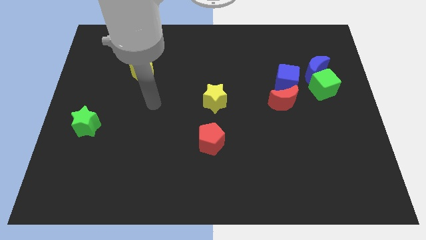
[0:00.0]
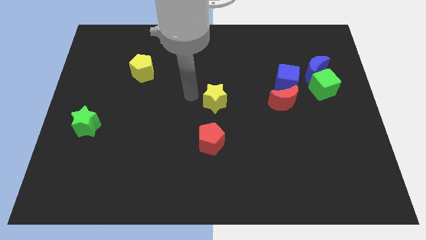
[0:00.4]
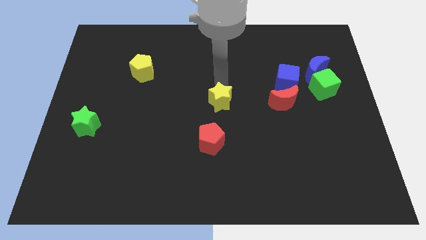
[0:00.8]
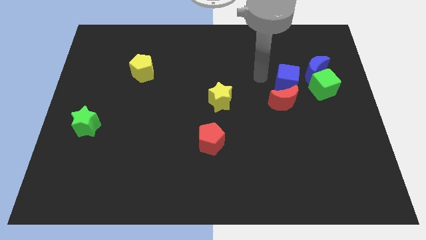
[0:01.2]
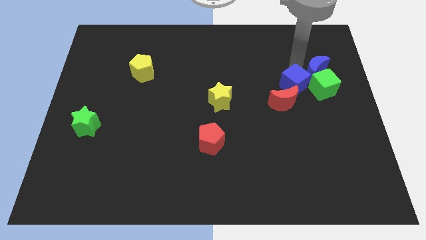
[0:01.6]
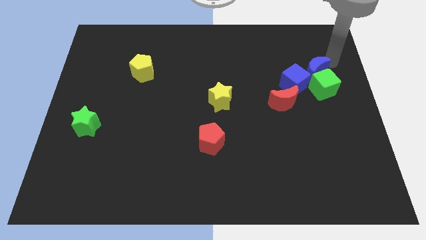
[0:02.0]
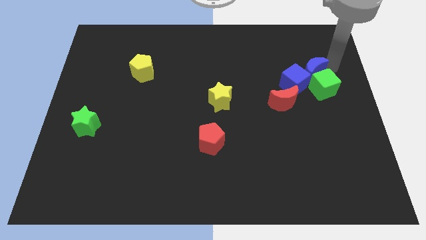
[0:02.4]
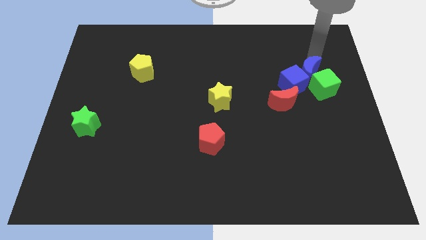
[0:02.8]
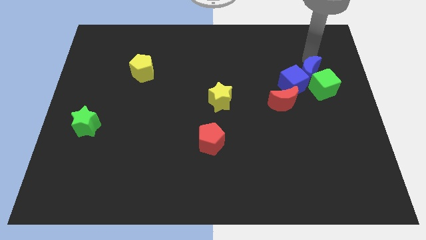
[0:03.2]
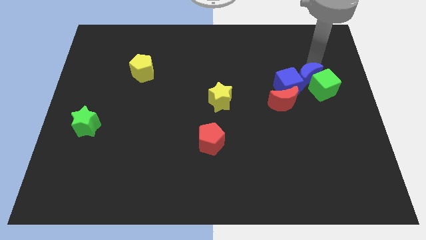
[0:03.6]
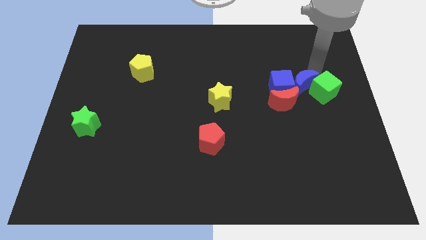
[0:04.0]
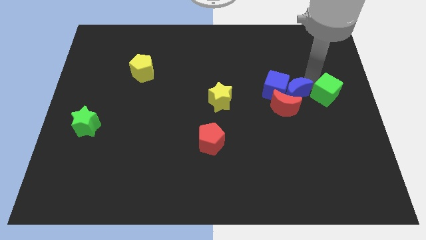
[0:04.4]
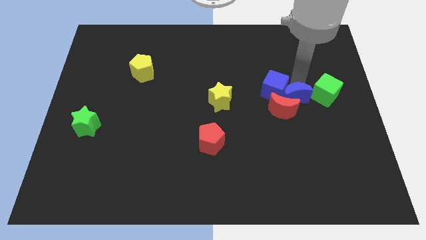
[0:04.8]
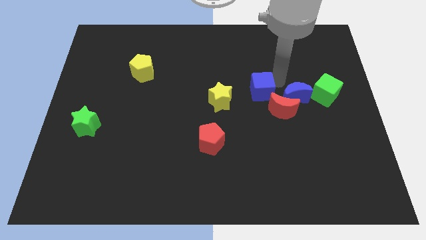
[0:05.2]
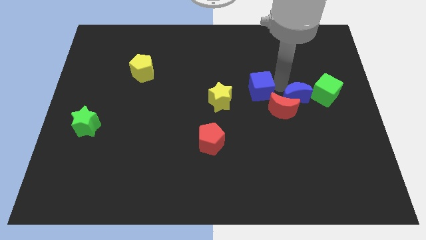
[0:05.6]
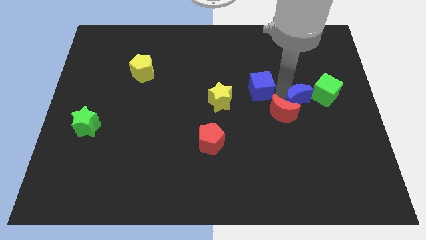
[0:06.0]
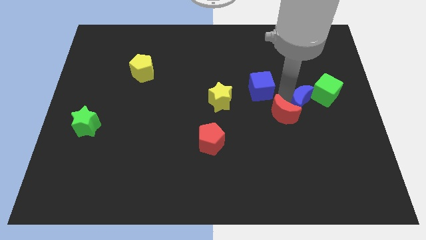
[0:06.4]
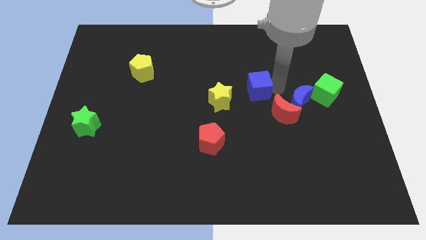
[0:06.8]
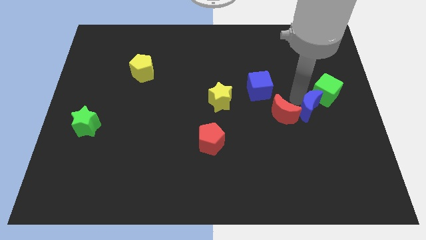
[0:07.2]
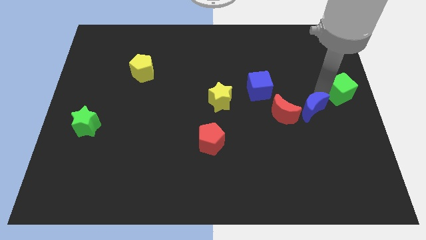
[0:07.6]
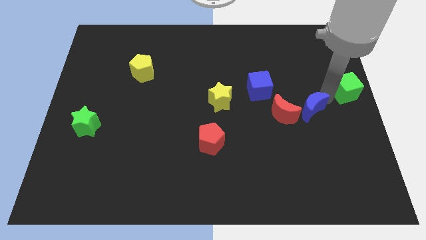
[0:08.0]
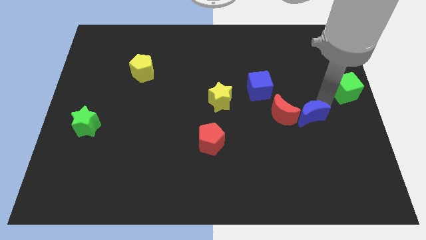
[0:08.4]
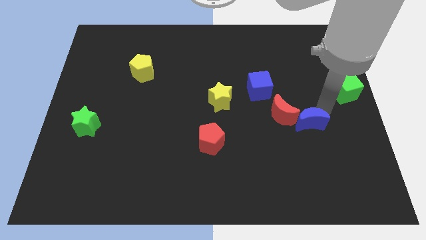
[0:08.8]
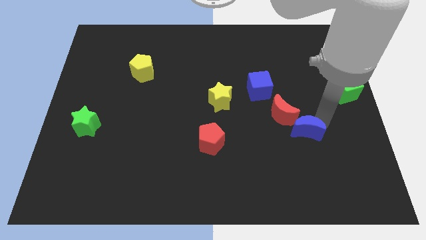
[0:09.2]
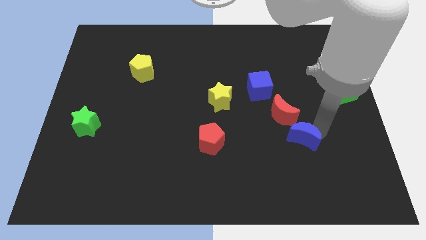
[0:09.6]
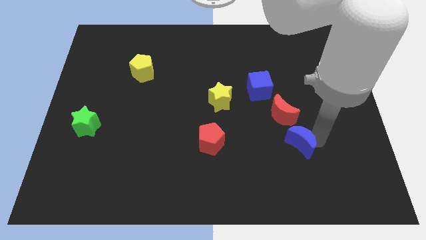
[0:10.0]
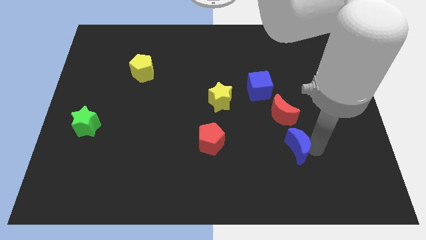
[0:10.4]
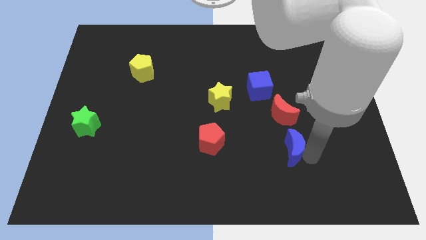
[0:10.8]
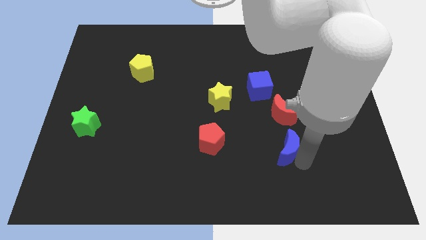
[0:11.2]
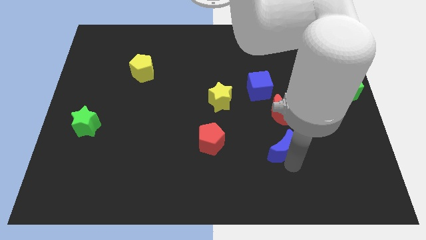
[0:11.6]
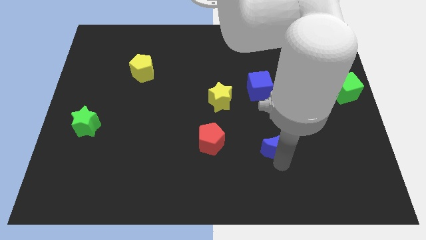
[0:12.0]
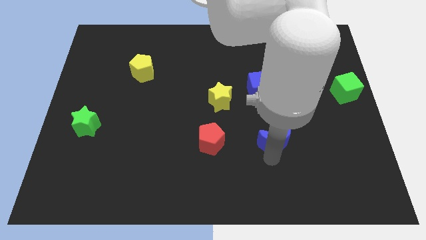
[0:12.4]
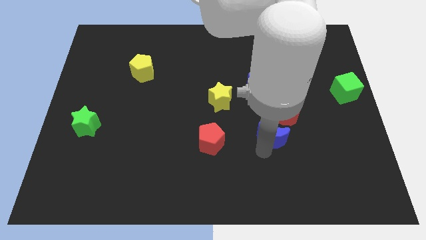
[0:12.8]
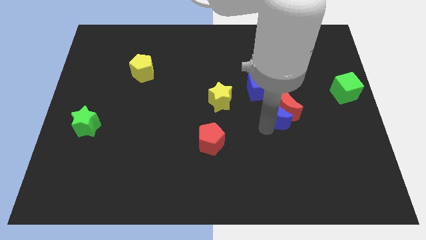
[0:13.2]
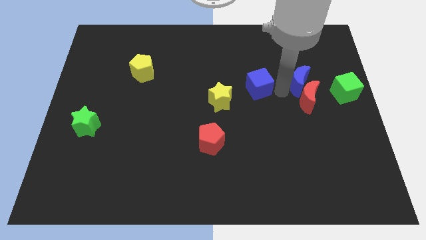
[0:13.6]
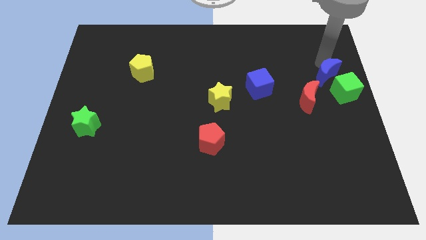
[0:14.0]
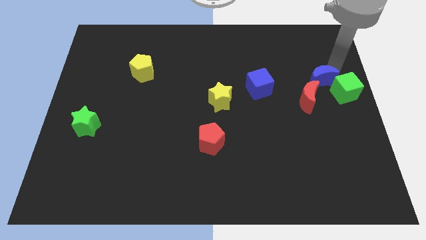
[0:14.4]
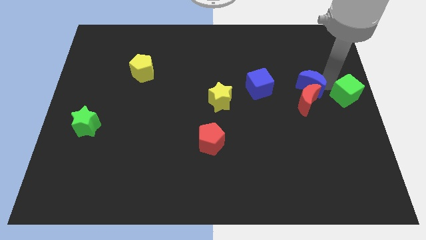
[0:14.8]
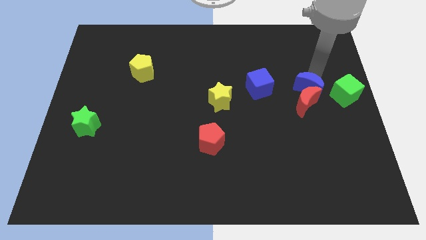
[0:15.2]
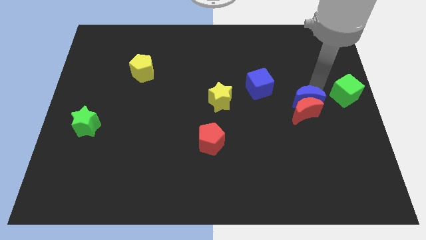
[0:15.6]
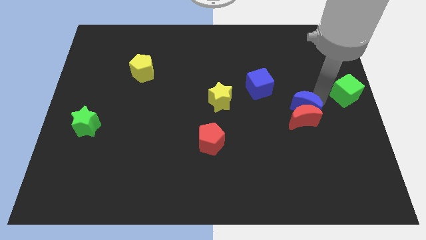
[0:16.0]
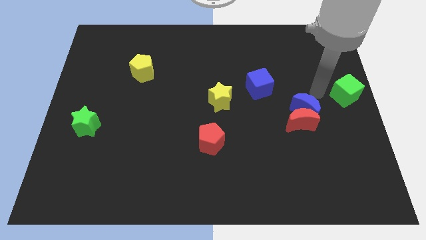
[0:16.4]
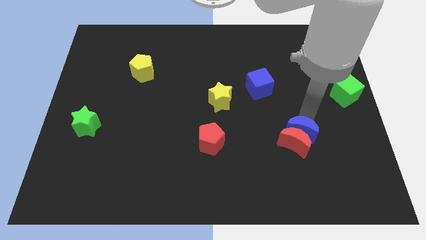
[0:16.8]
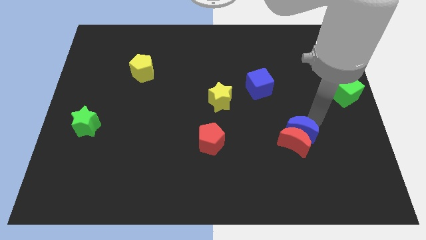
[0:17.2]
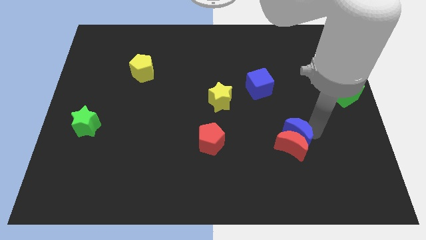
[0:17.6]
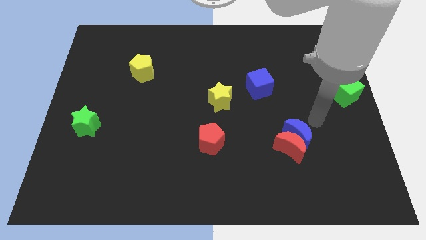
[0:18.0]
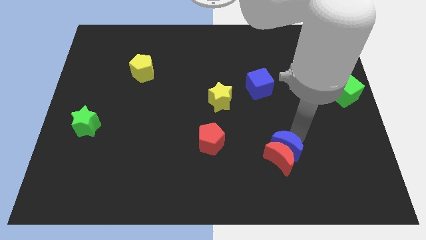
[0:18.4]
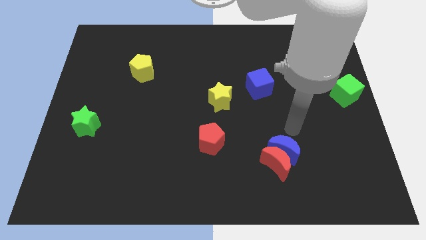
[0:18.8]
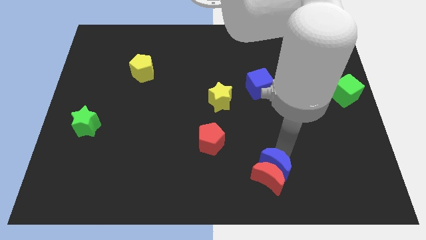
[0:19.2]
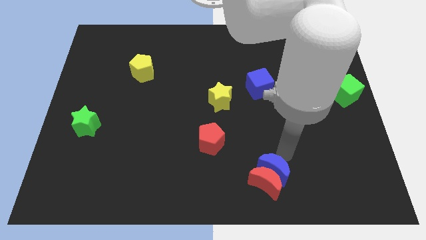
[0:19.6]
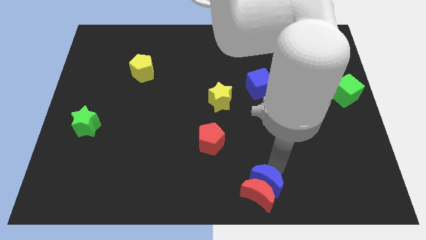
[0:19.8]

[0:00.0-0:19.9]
slide the blue moon to the bottom

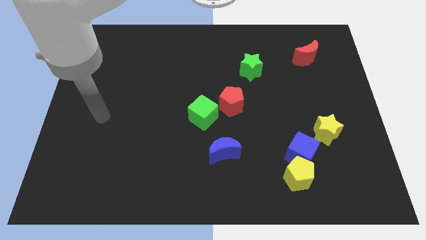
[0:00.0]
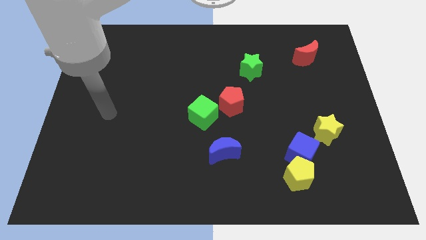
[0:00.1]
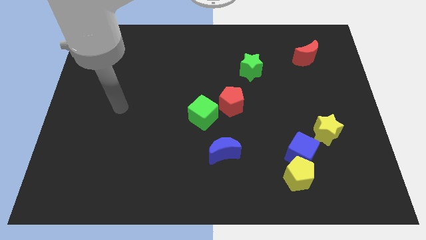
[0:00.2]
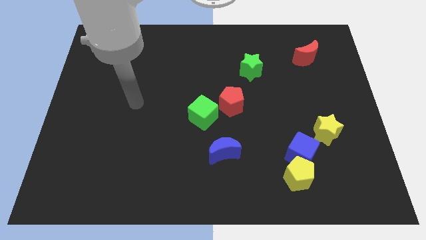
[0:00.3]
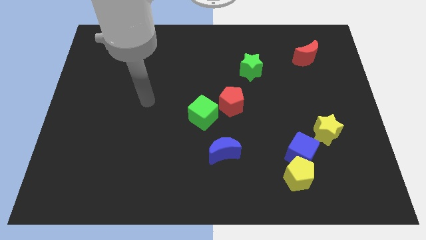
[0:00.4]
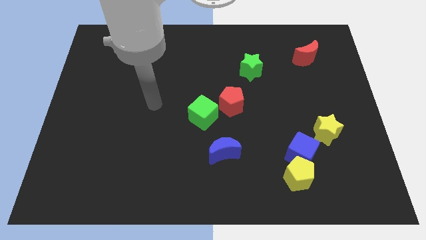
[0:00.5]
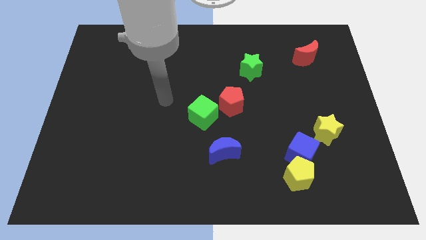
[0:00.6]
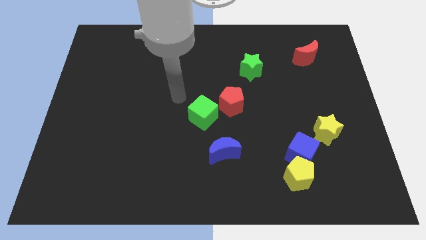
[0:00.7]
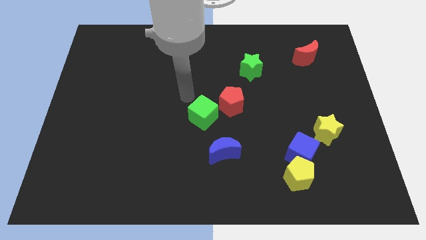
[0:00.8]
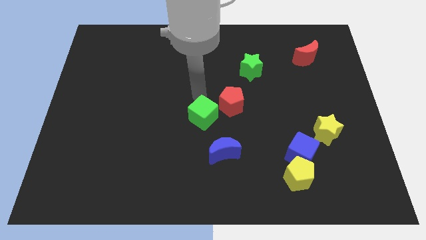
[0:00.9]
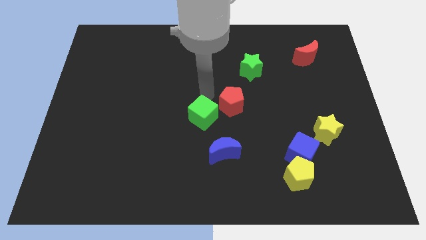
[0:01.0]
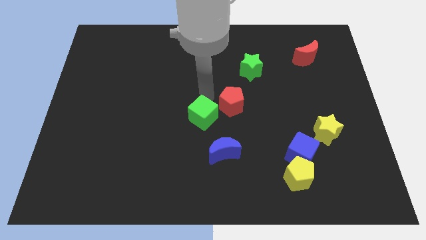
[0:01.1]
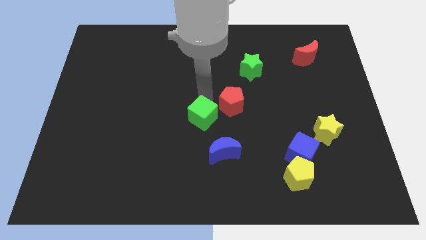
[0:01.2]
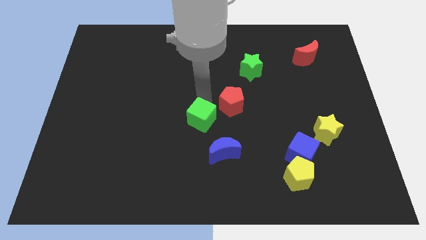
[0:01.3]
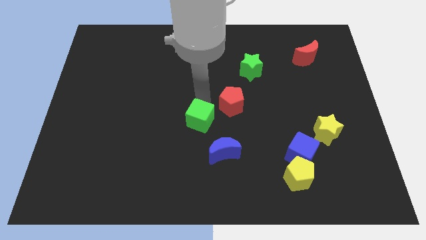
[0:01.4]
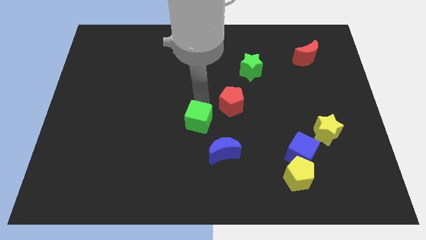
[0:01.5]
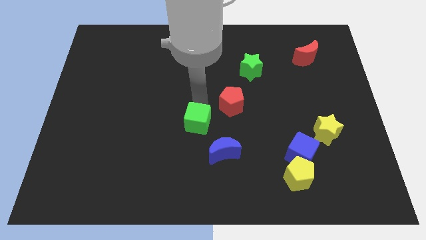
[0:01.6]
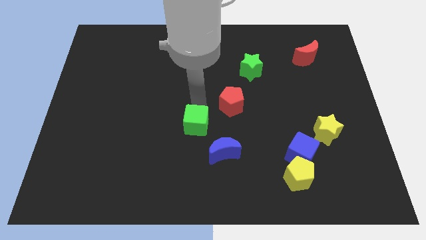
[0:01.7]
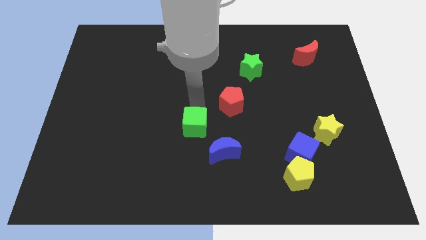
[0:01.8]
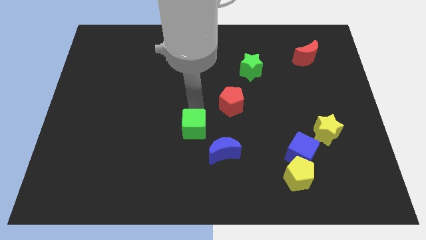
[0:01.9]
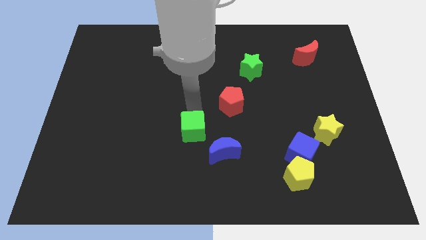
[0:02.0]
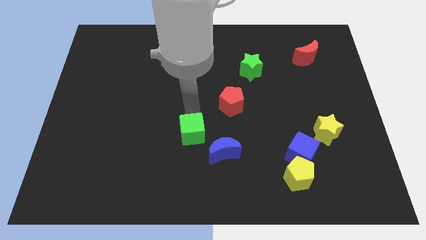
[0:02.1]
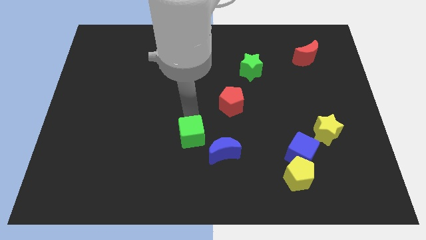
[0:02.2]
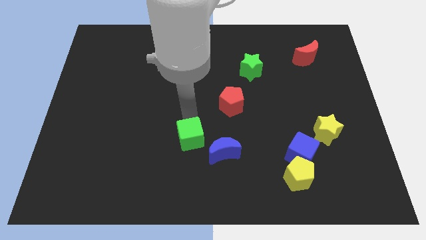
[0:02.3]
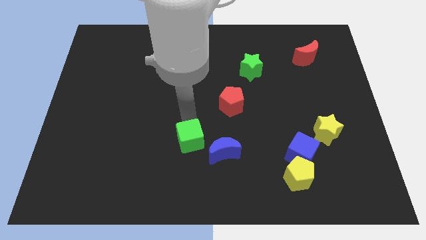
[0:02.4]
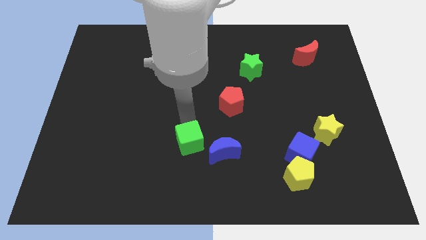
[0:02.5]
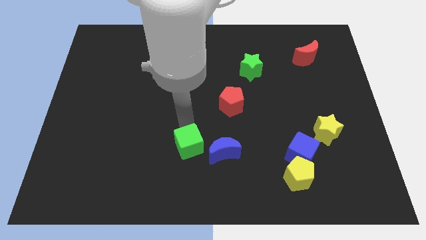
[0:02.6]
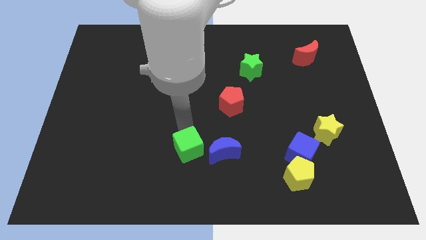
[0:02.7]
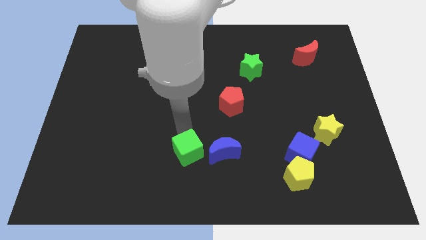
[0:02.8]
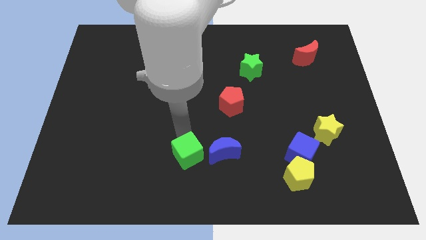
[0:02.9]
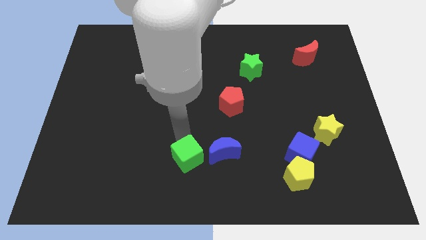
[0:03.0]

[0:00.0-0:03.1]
push the green cube to the bottom side
